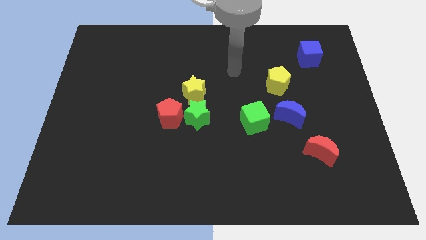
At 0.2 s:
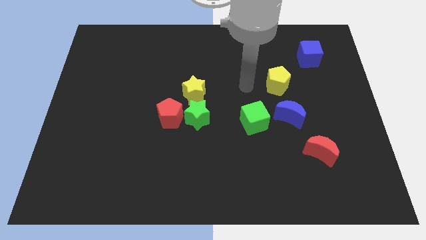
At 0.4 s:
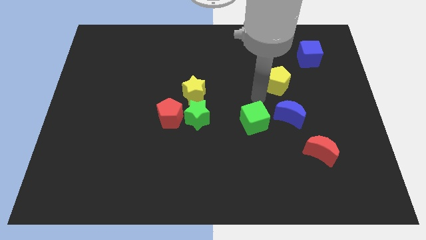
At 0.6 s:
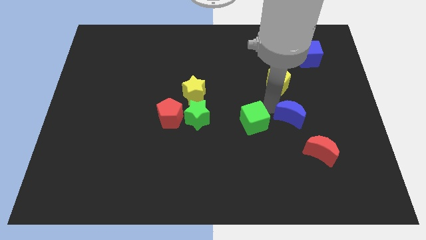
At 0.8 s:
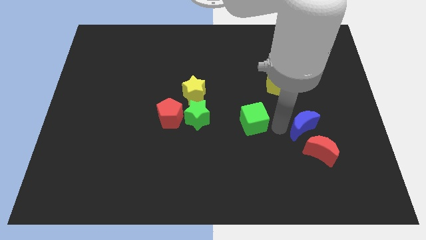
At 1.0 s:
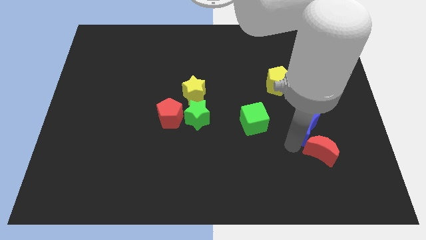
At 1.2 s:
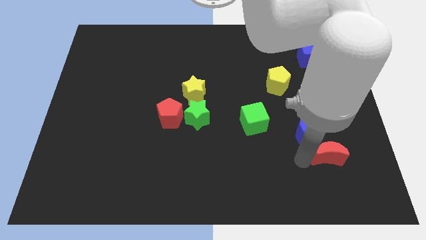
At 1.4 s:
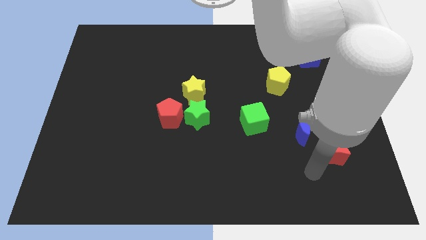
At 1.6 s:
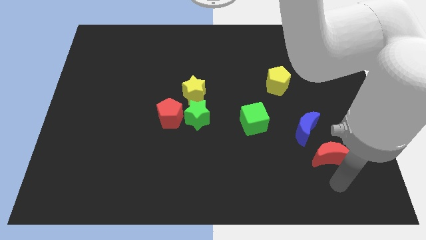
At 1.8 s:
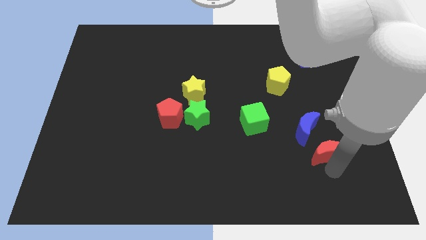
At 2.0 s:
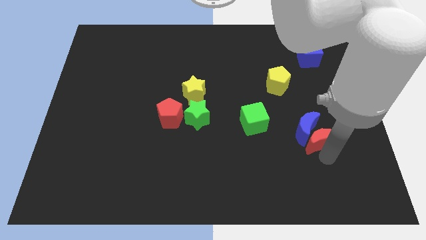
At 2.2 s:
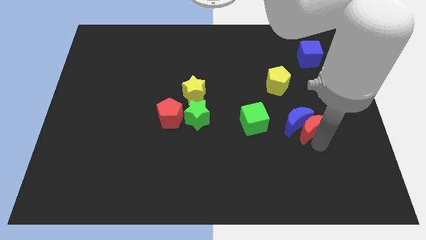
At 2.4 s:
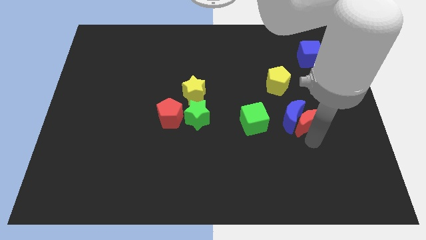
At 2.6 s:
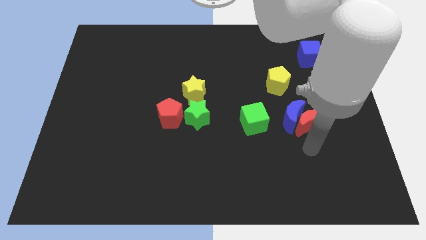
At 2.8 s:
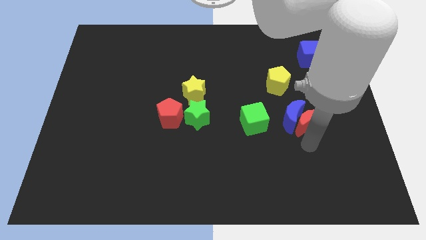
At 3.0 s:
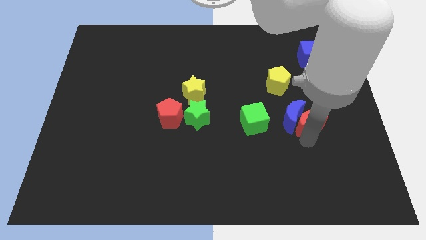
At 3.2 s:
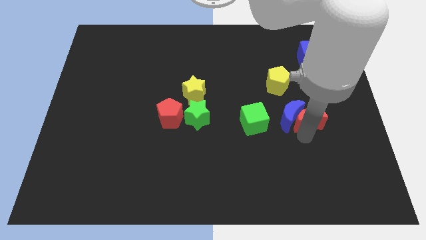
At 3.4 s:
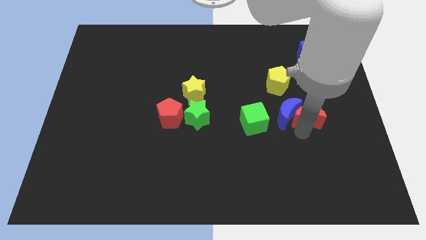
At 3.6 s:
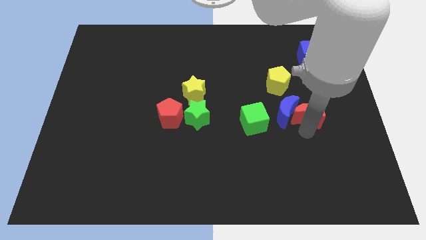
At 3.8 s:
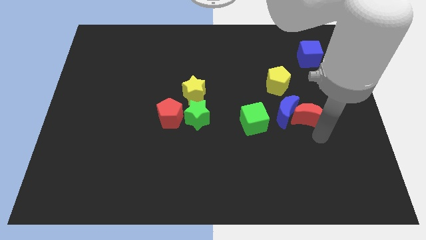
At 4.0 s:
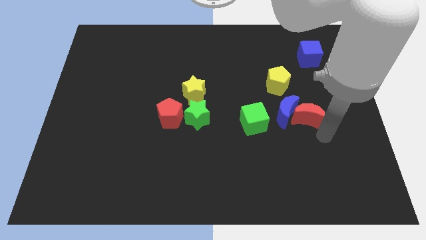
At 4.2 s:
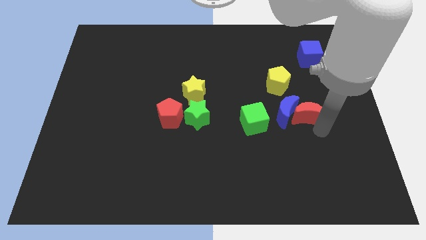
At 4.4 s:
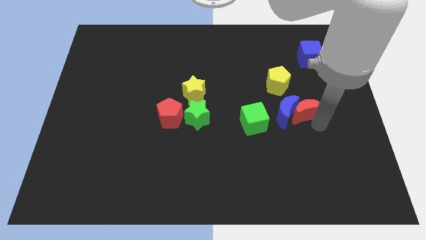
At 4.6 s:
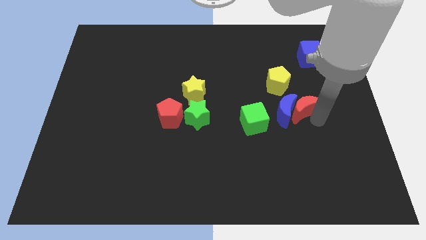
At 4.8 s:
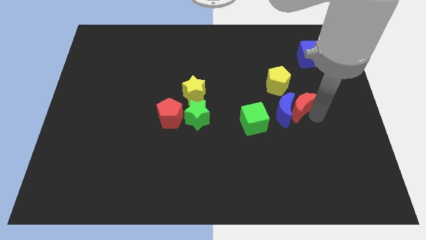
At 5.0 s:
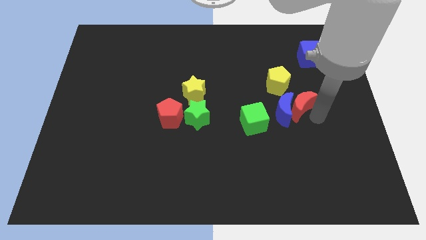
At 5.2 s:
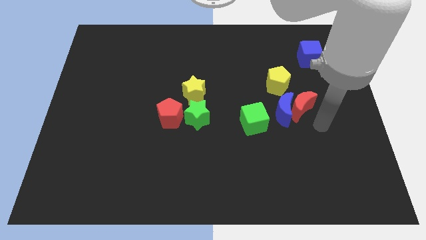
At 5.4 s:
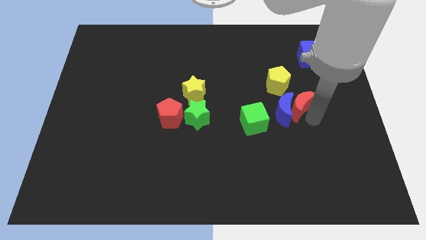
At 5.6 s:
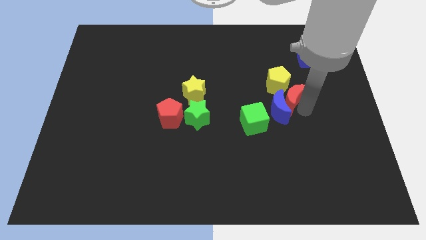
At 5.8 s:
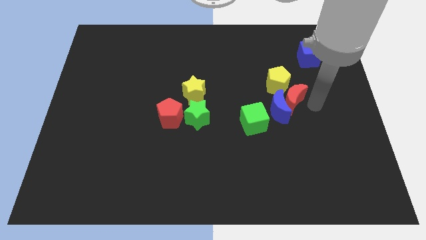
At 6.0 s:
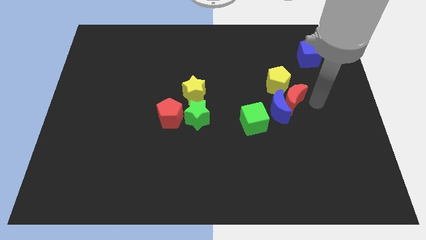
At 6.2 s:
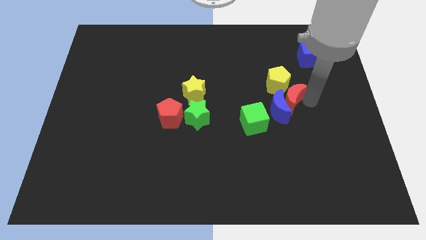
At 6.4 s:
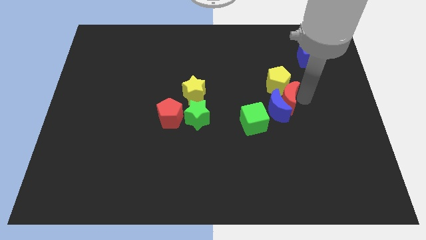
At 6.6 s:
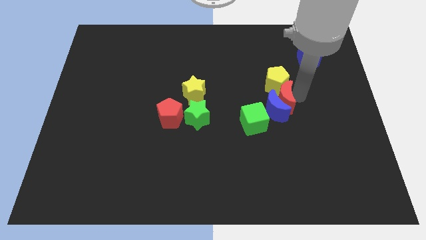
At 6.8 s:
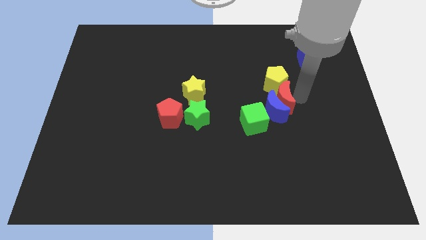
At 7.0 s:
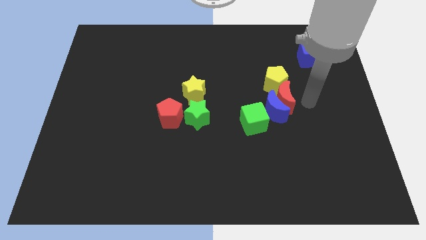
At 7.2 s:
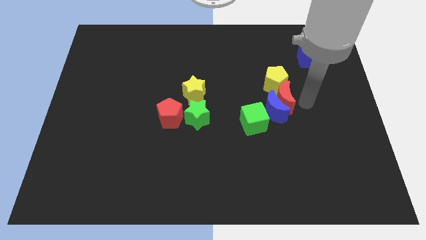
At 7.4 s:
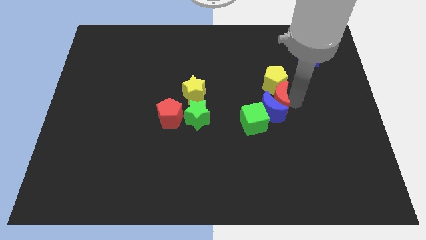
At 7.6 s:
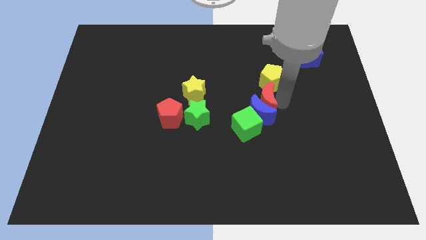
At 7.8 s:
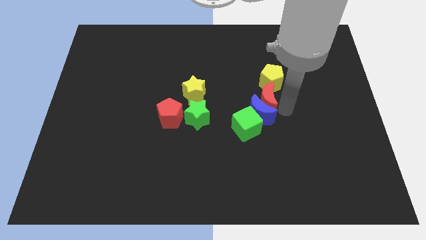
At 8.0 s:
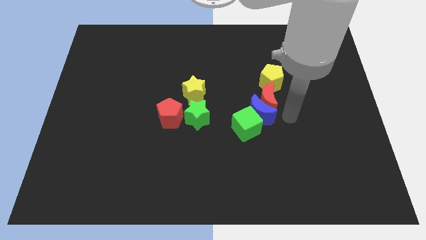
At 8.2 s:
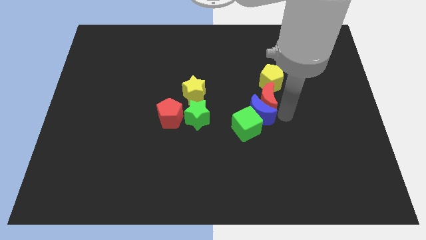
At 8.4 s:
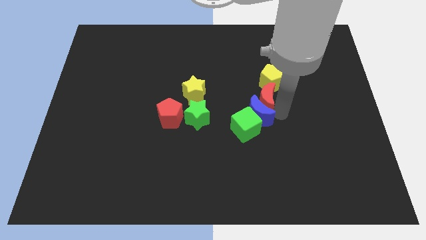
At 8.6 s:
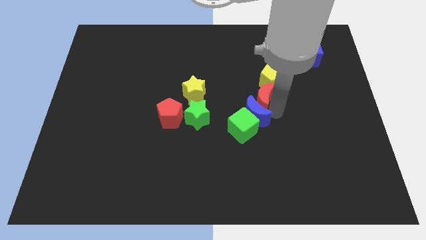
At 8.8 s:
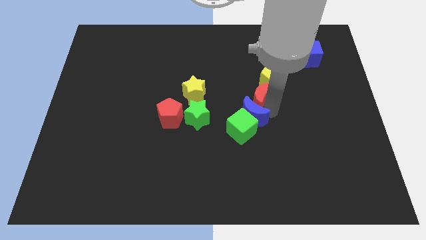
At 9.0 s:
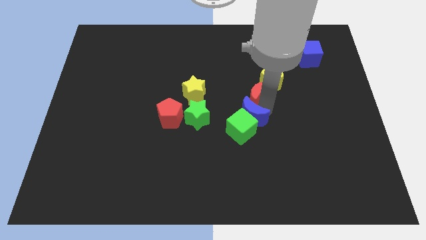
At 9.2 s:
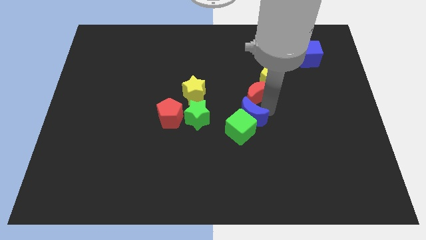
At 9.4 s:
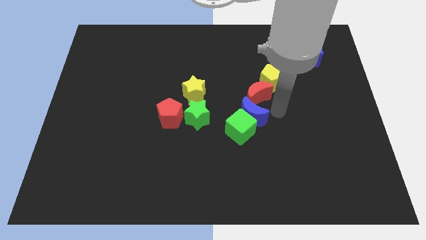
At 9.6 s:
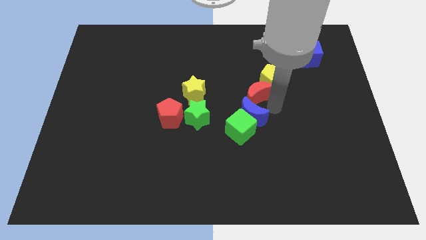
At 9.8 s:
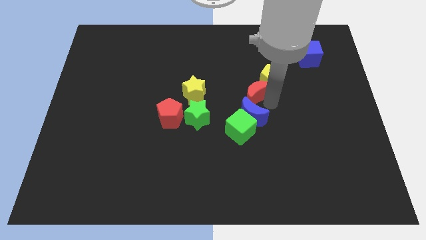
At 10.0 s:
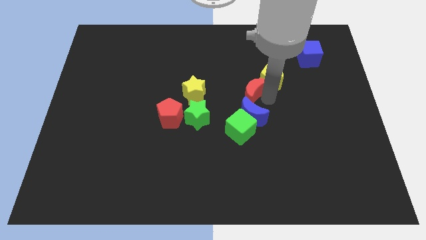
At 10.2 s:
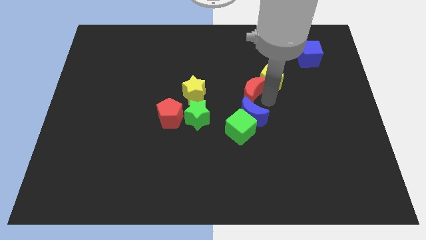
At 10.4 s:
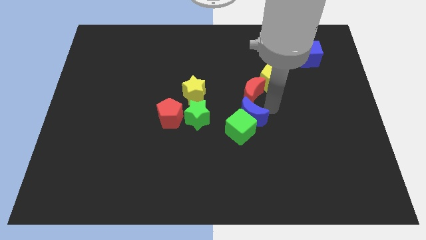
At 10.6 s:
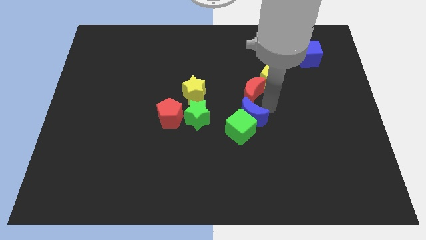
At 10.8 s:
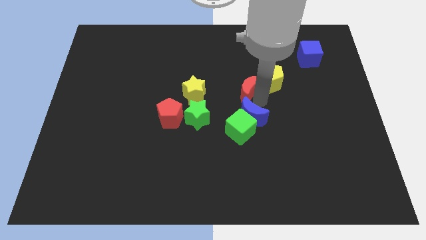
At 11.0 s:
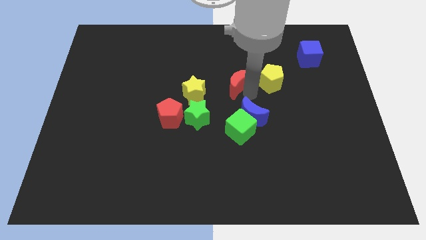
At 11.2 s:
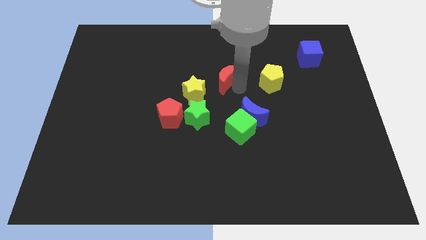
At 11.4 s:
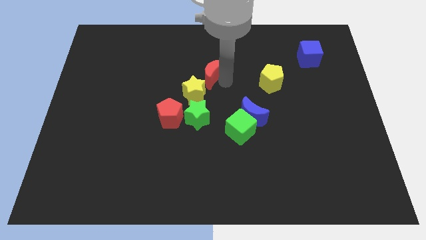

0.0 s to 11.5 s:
slide the red moon to the top of the yellow star

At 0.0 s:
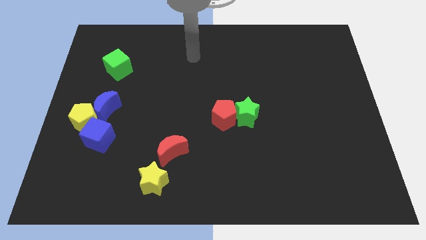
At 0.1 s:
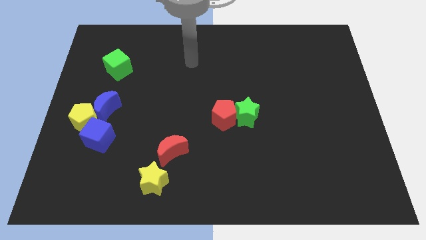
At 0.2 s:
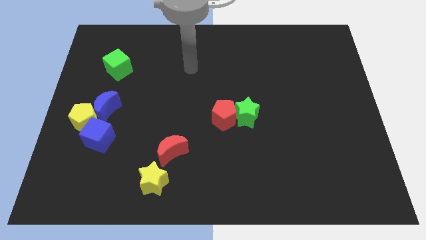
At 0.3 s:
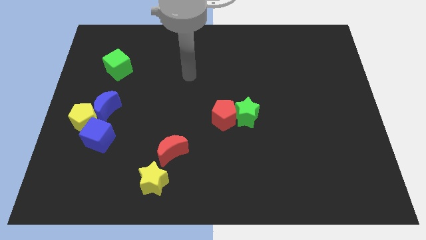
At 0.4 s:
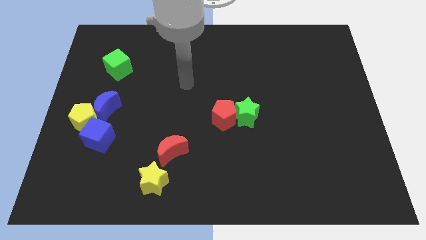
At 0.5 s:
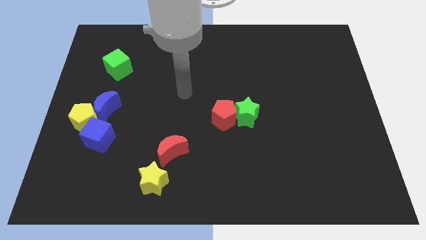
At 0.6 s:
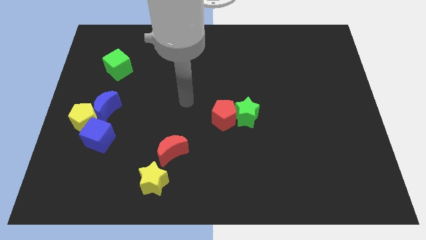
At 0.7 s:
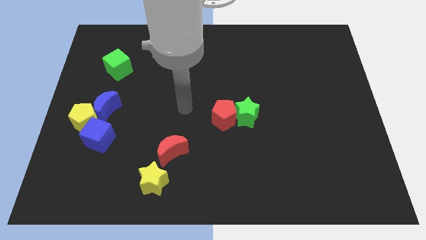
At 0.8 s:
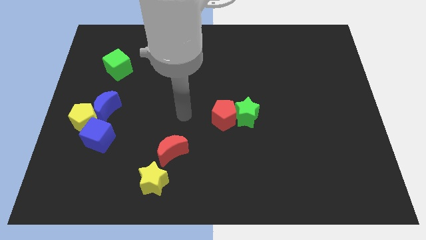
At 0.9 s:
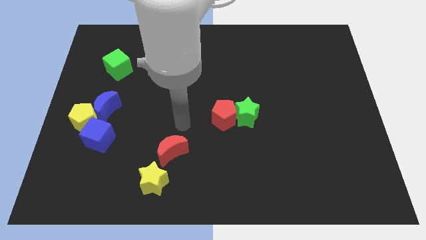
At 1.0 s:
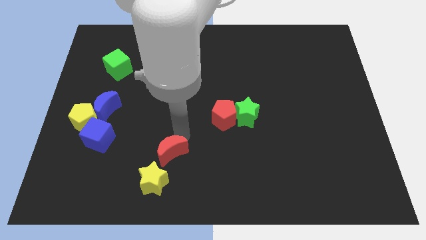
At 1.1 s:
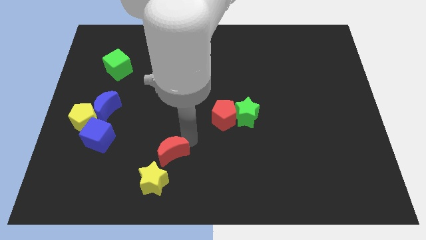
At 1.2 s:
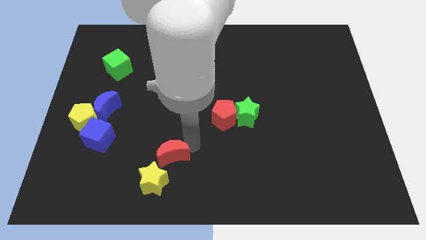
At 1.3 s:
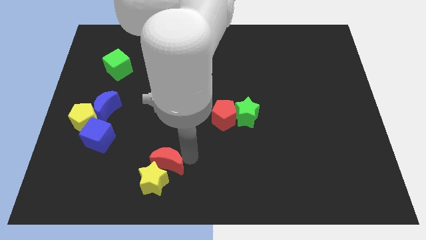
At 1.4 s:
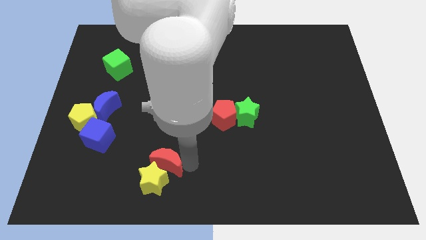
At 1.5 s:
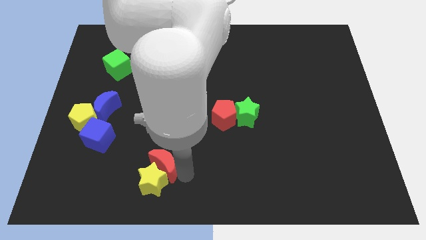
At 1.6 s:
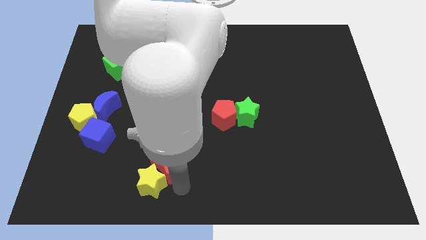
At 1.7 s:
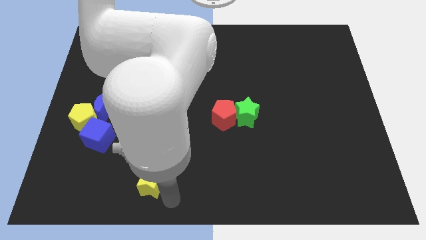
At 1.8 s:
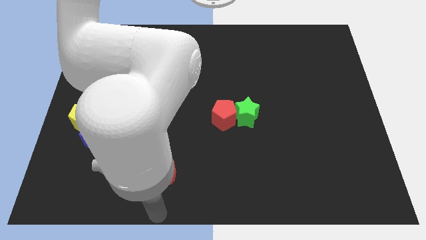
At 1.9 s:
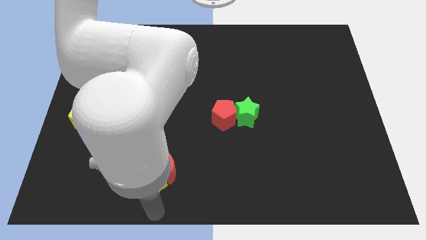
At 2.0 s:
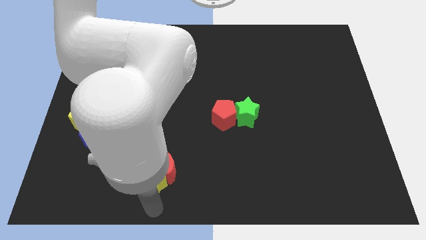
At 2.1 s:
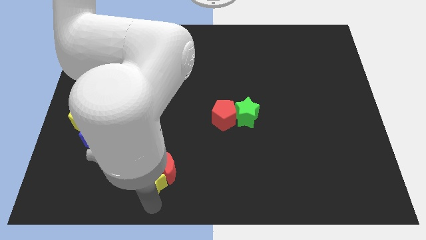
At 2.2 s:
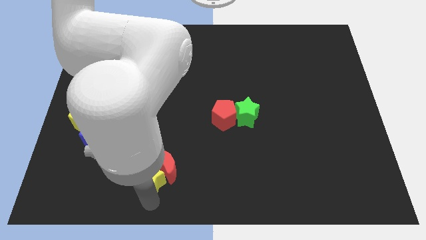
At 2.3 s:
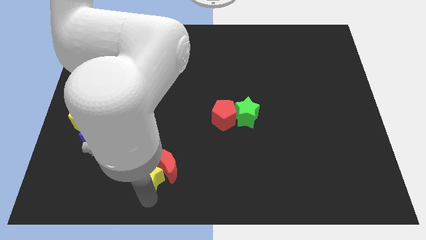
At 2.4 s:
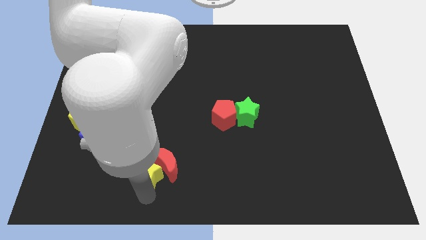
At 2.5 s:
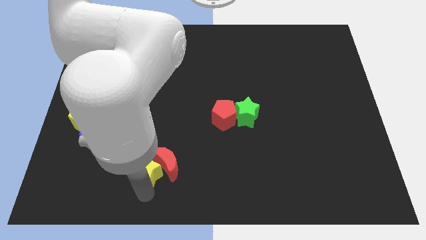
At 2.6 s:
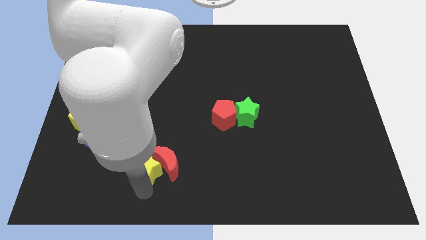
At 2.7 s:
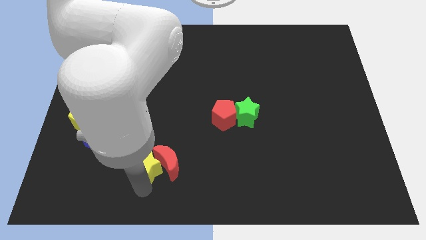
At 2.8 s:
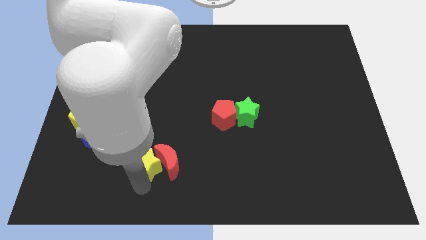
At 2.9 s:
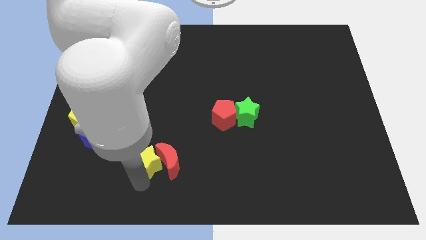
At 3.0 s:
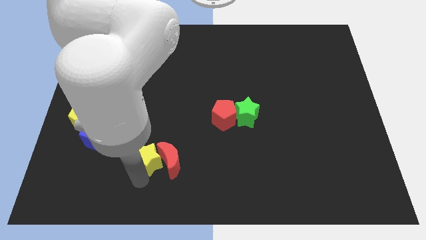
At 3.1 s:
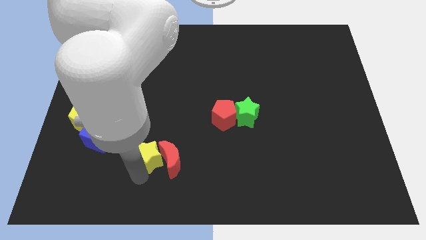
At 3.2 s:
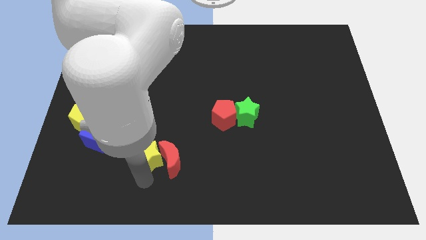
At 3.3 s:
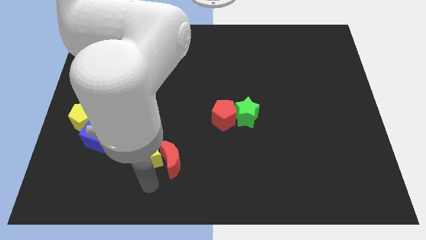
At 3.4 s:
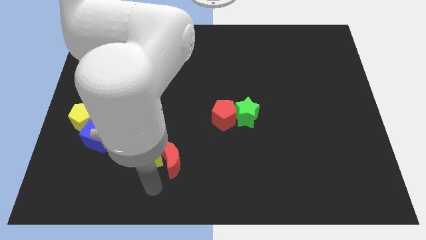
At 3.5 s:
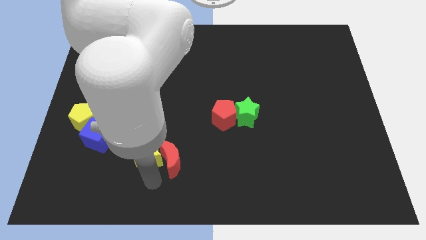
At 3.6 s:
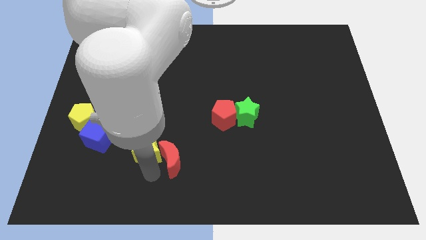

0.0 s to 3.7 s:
push the yellow star to the right of the blue cube
